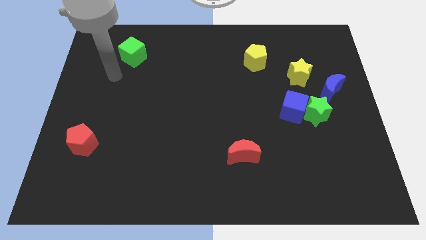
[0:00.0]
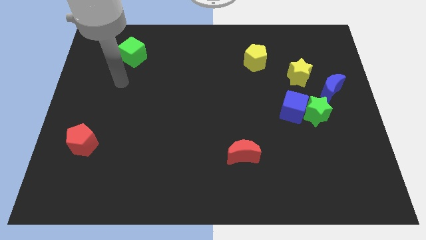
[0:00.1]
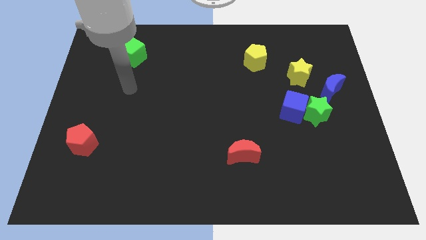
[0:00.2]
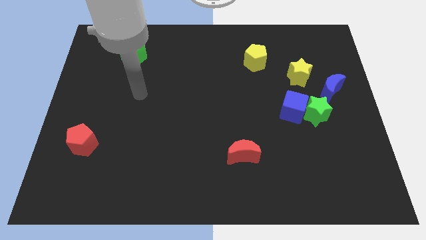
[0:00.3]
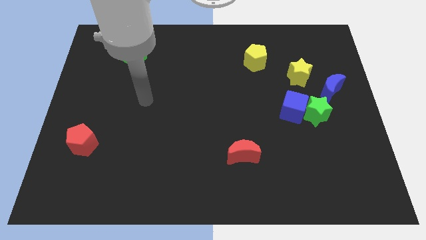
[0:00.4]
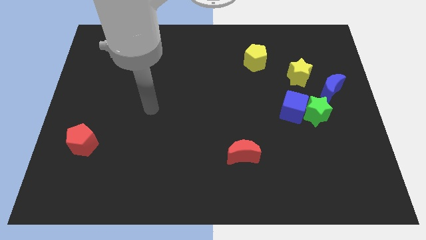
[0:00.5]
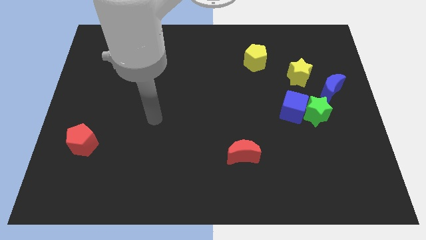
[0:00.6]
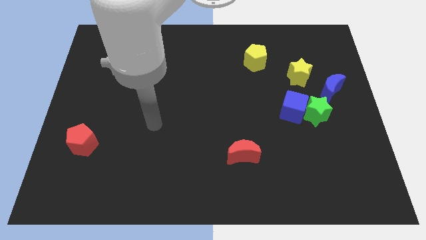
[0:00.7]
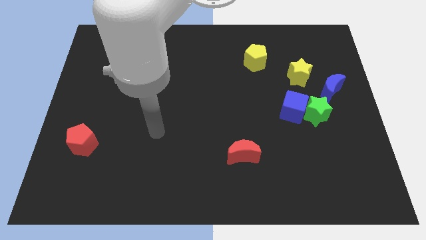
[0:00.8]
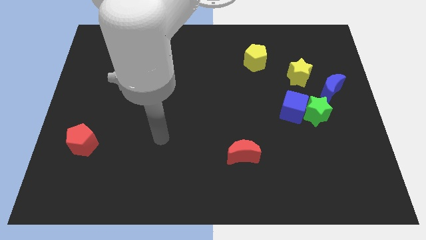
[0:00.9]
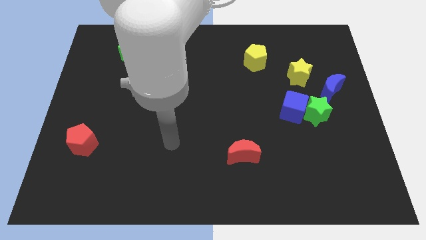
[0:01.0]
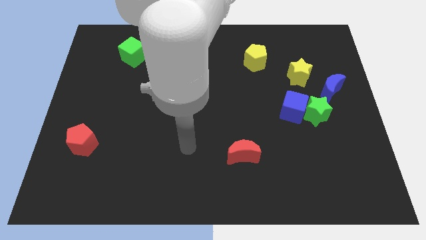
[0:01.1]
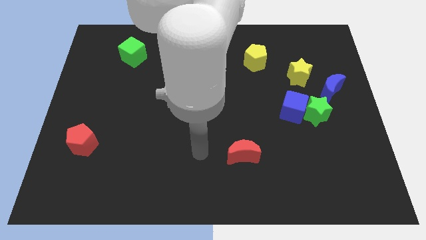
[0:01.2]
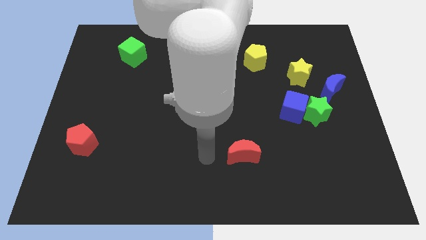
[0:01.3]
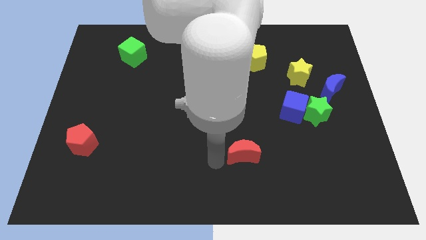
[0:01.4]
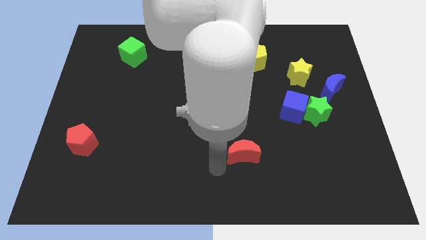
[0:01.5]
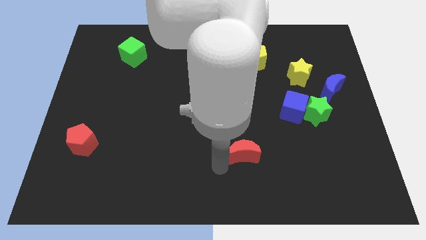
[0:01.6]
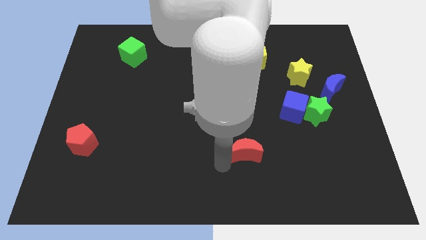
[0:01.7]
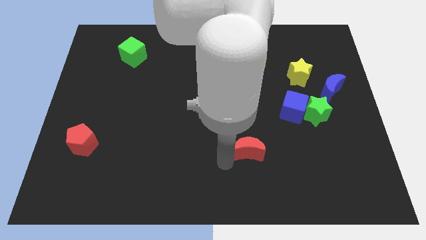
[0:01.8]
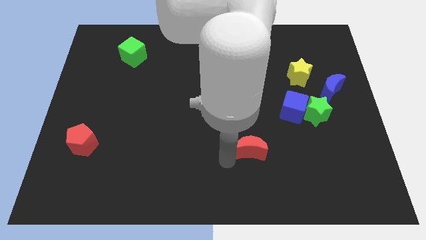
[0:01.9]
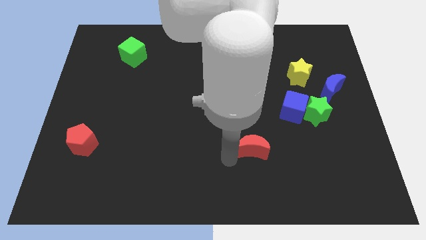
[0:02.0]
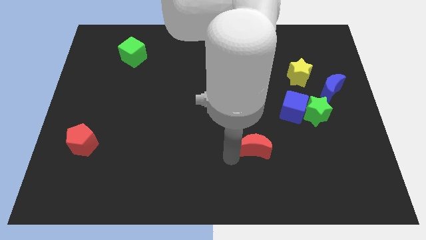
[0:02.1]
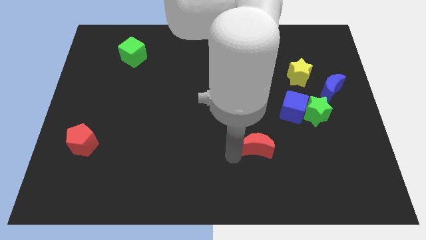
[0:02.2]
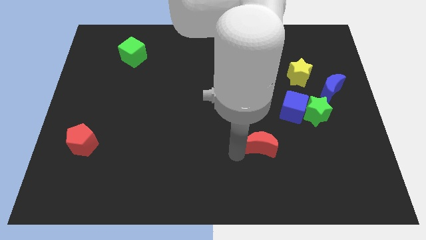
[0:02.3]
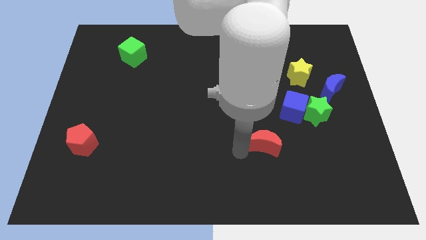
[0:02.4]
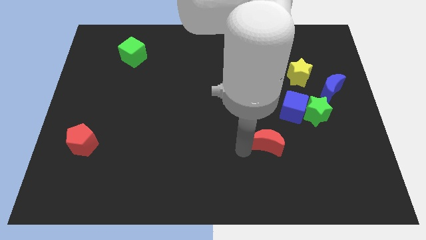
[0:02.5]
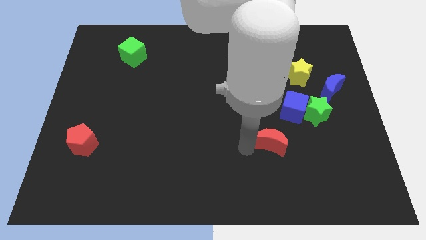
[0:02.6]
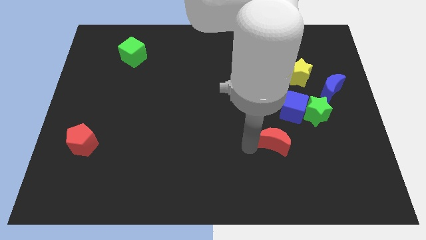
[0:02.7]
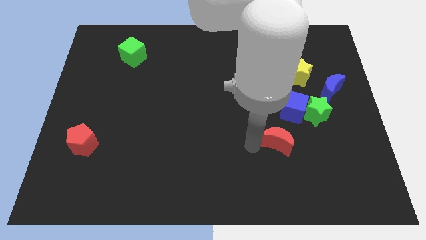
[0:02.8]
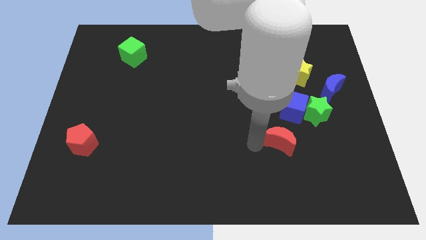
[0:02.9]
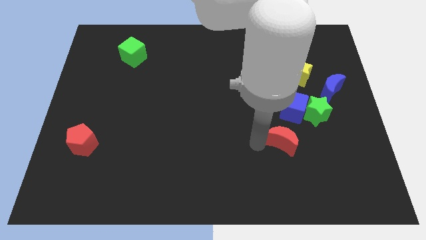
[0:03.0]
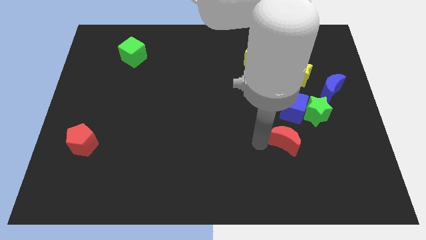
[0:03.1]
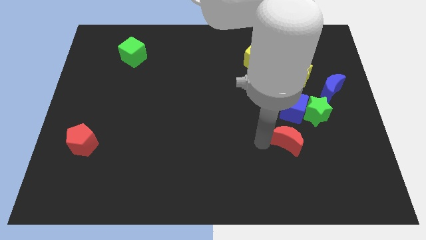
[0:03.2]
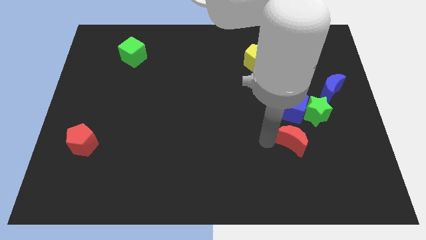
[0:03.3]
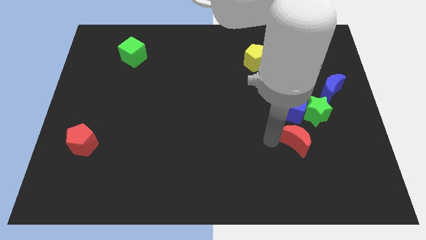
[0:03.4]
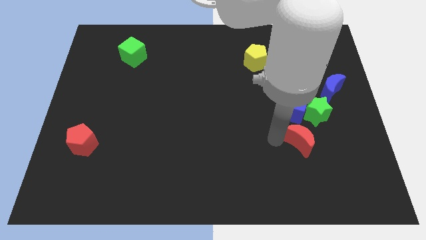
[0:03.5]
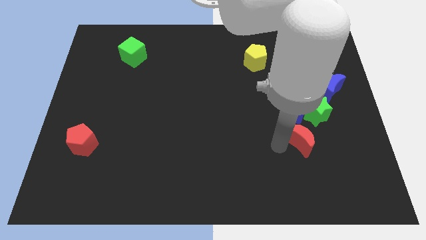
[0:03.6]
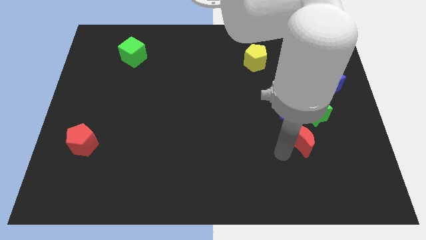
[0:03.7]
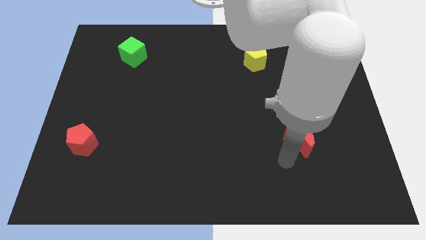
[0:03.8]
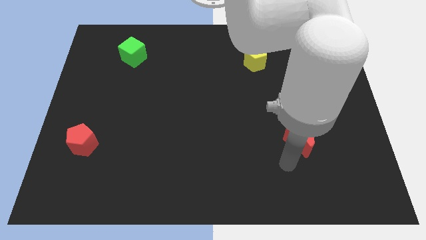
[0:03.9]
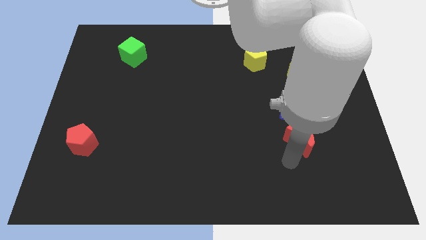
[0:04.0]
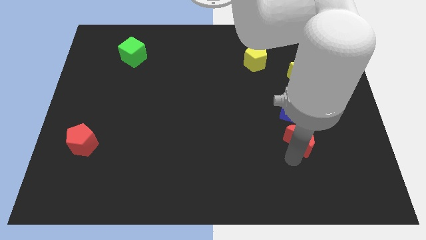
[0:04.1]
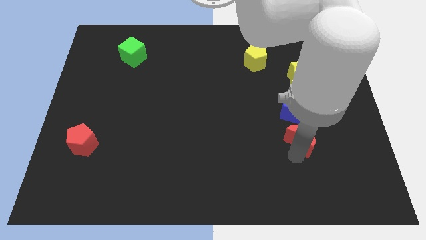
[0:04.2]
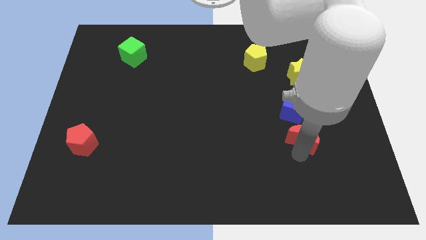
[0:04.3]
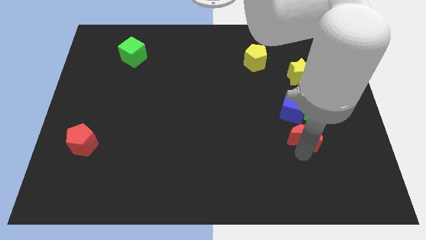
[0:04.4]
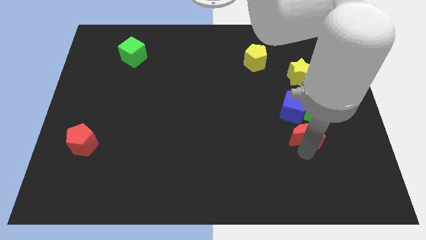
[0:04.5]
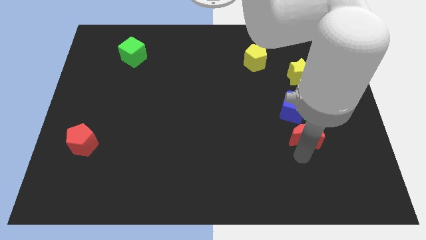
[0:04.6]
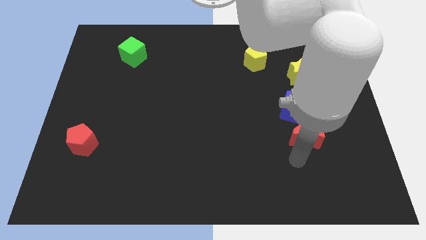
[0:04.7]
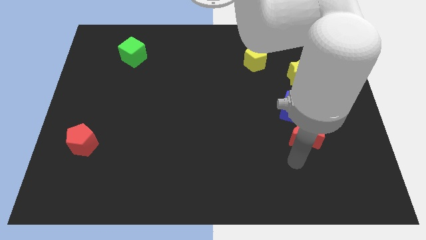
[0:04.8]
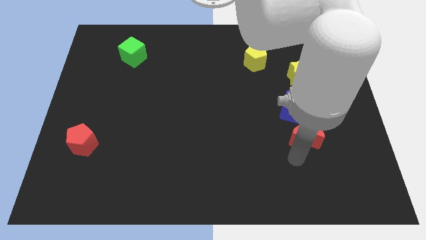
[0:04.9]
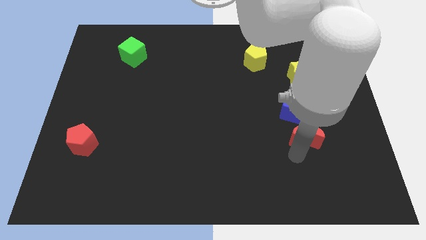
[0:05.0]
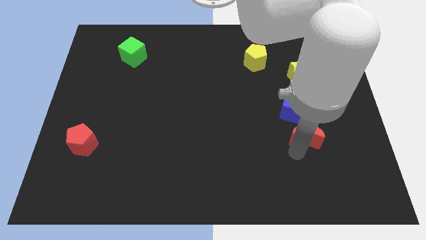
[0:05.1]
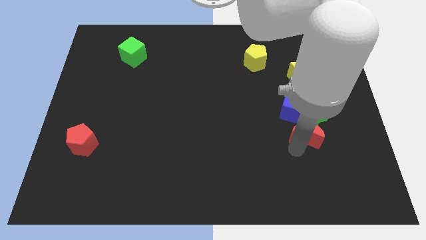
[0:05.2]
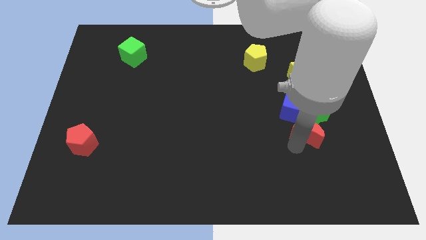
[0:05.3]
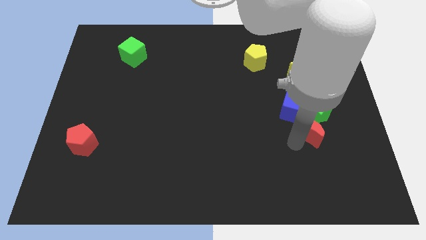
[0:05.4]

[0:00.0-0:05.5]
push the red moon towards the green star
